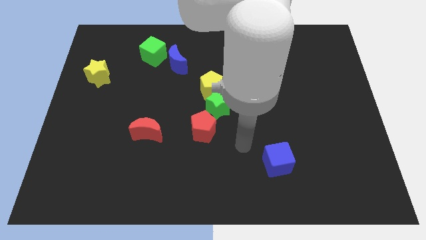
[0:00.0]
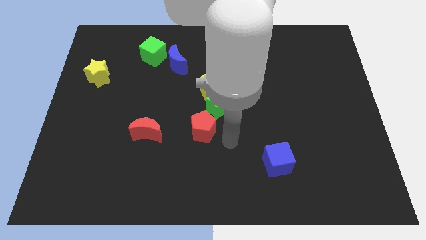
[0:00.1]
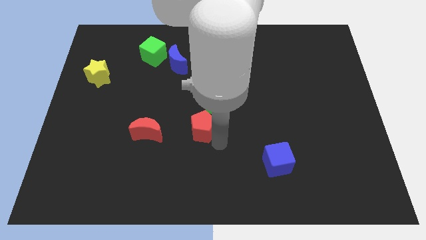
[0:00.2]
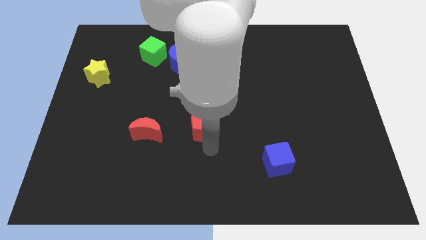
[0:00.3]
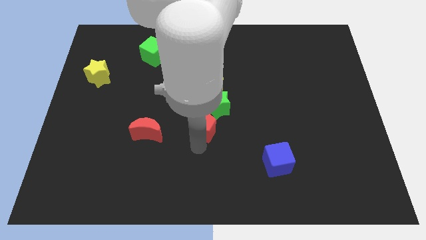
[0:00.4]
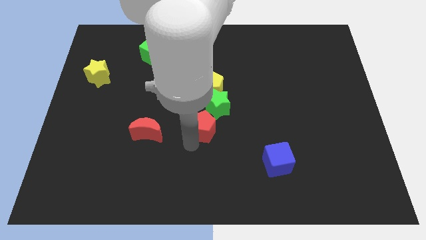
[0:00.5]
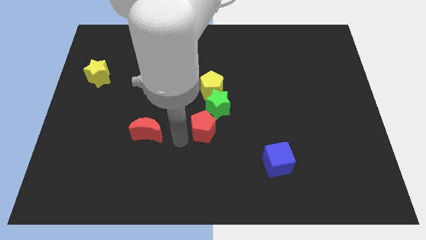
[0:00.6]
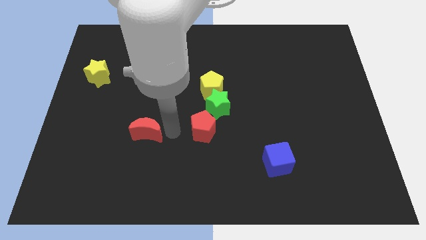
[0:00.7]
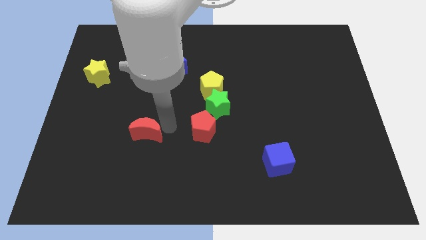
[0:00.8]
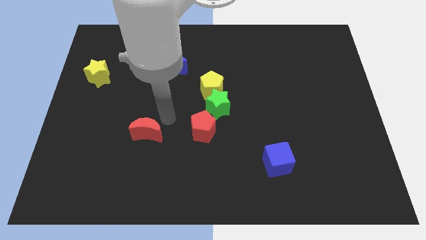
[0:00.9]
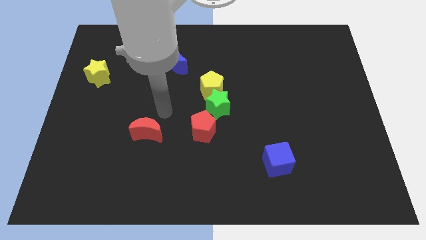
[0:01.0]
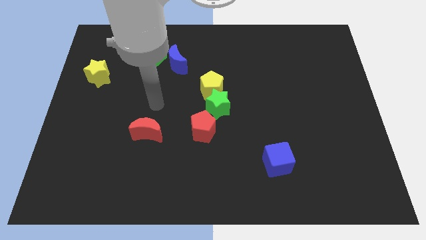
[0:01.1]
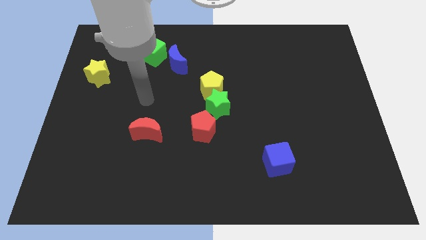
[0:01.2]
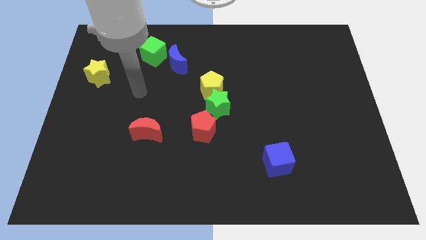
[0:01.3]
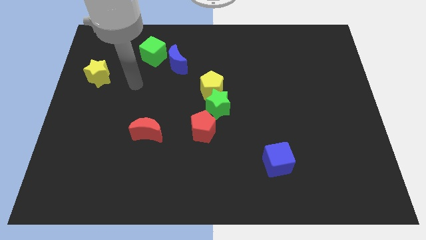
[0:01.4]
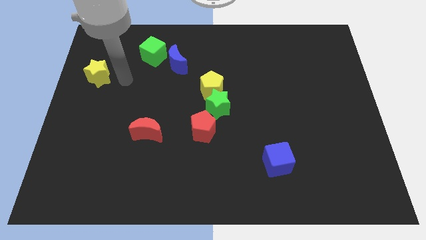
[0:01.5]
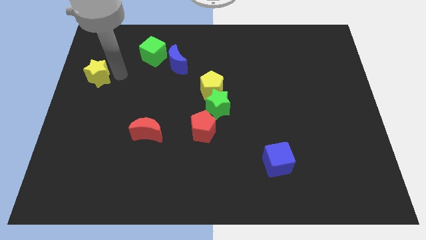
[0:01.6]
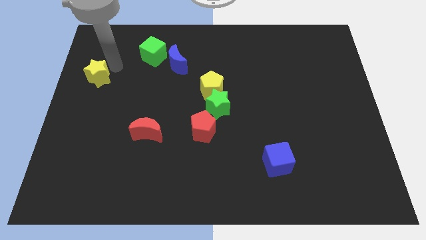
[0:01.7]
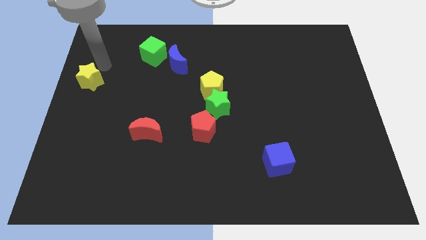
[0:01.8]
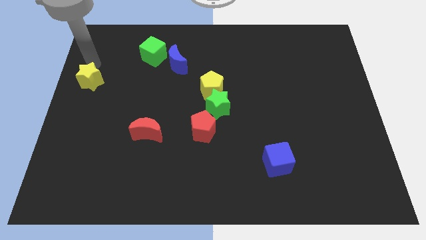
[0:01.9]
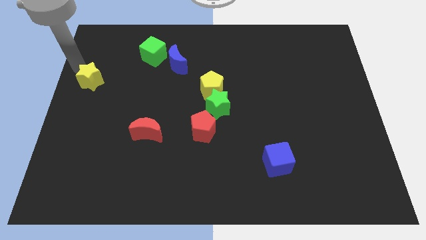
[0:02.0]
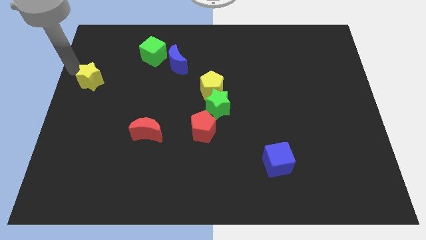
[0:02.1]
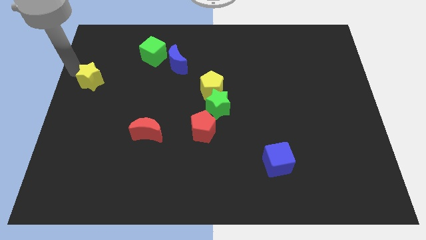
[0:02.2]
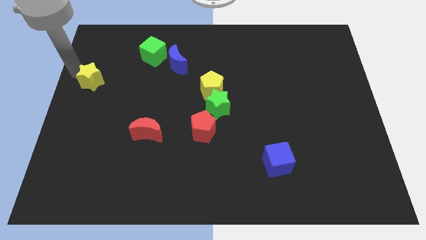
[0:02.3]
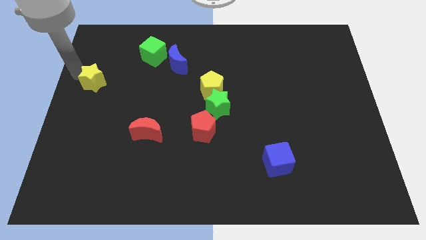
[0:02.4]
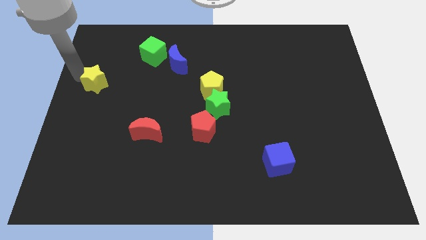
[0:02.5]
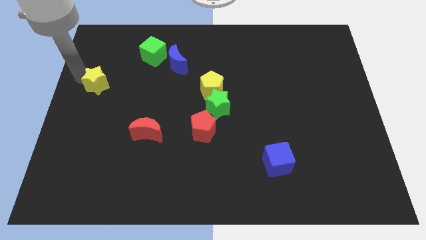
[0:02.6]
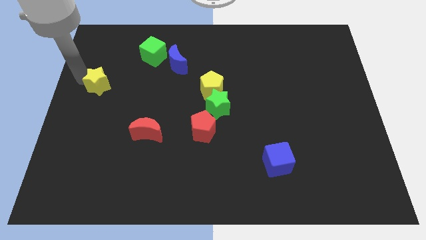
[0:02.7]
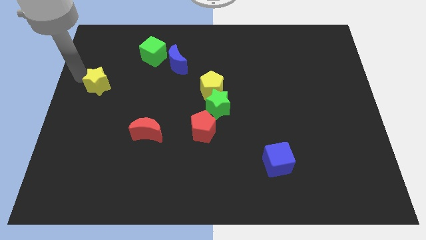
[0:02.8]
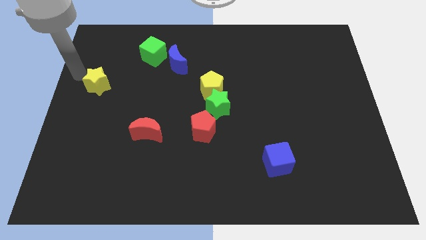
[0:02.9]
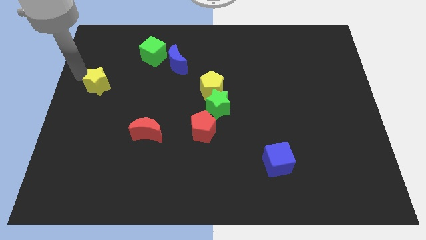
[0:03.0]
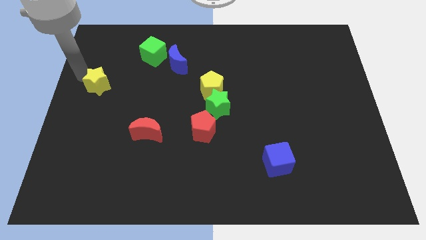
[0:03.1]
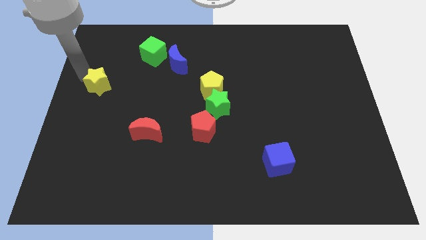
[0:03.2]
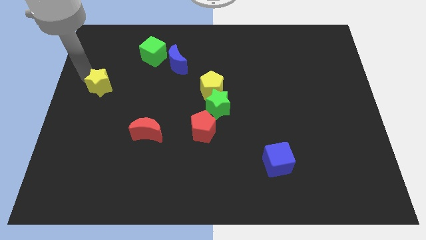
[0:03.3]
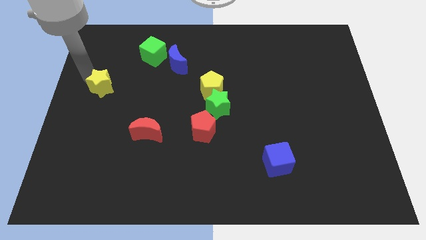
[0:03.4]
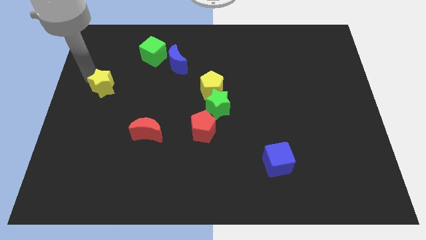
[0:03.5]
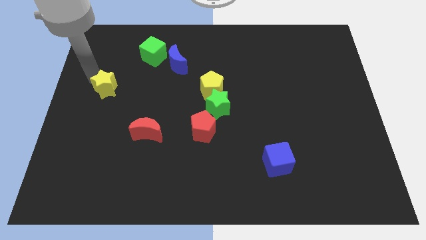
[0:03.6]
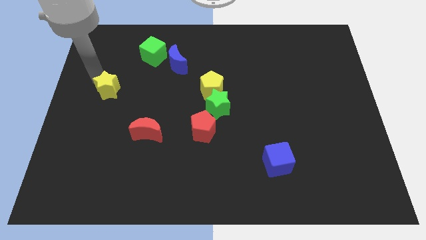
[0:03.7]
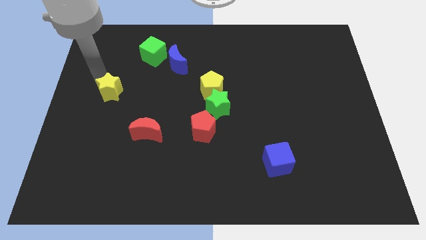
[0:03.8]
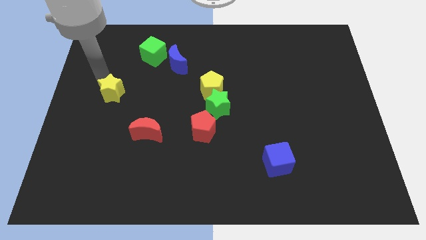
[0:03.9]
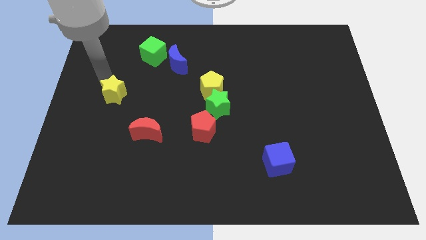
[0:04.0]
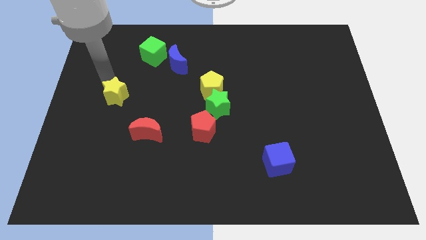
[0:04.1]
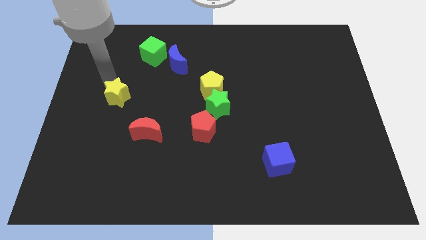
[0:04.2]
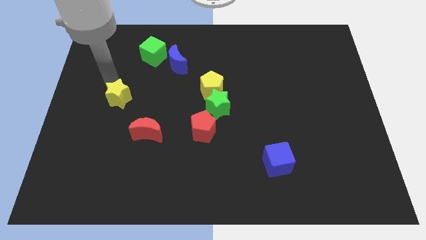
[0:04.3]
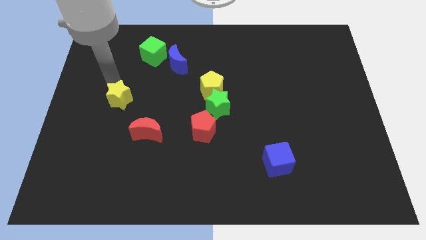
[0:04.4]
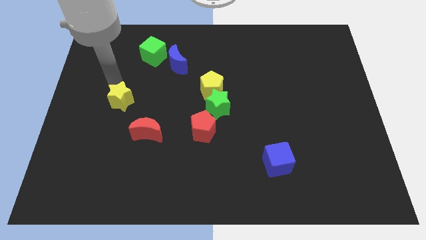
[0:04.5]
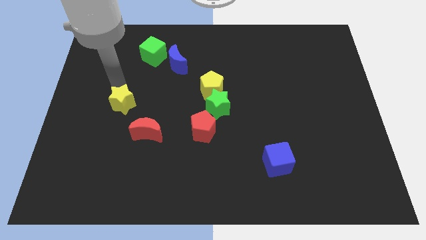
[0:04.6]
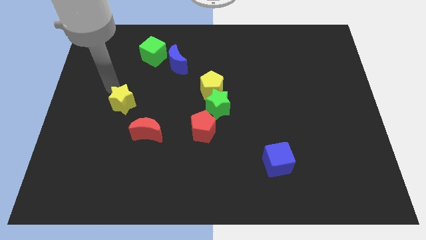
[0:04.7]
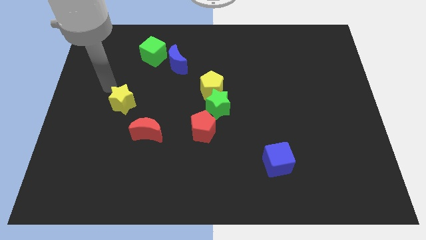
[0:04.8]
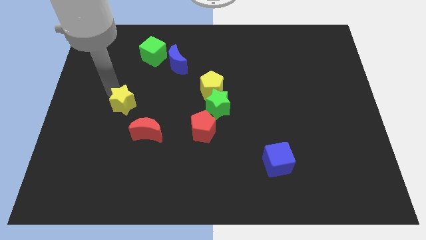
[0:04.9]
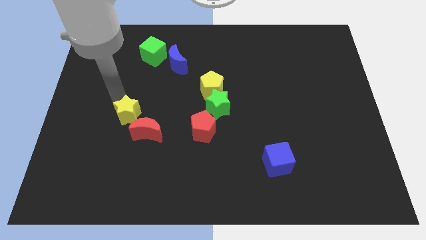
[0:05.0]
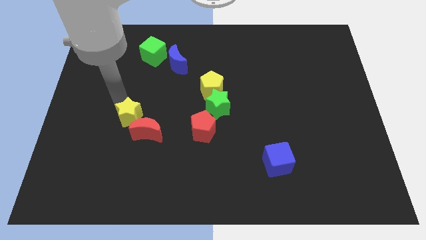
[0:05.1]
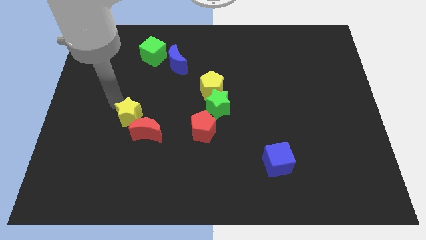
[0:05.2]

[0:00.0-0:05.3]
slide the yellow star next to the red moon

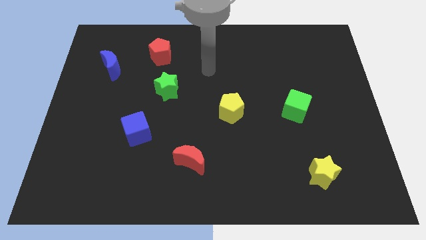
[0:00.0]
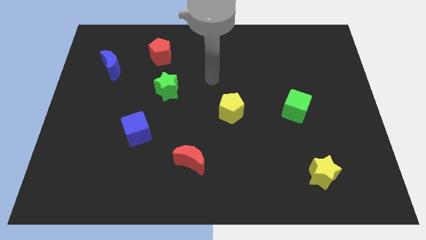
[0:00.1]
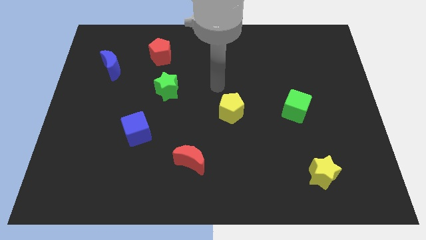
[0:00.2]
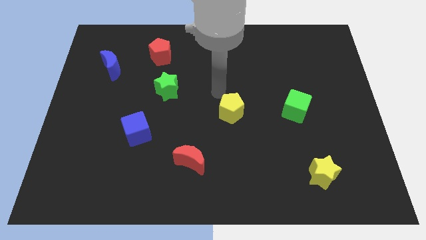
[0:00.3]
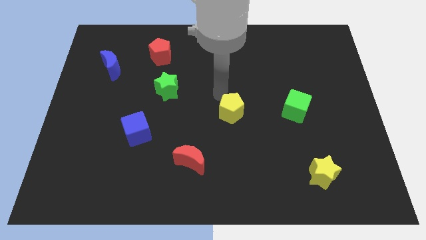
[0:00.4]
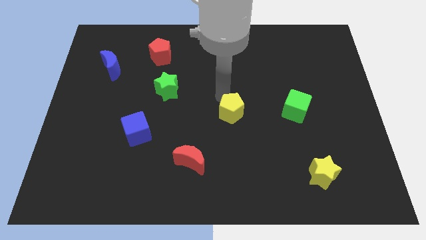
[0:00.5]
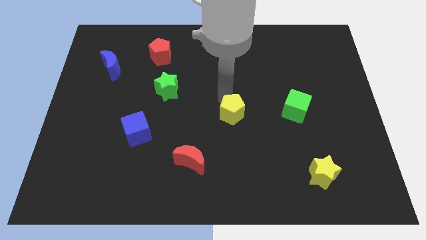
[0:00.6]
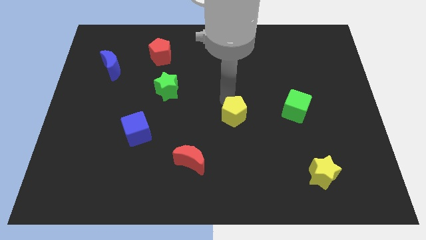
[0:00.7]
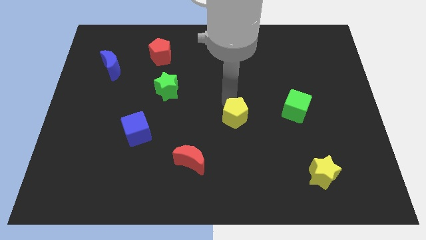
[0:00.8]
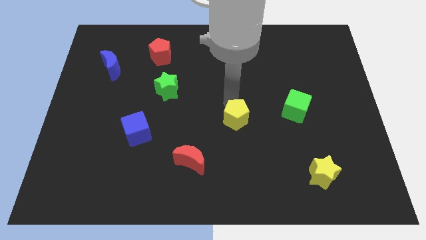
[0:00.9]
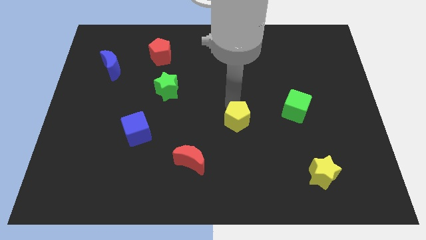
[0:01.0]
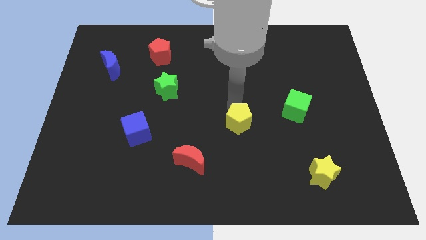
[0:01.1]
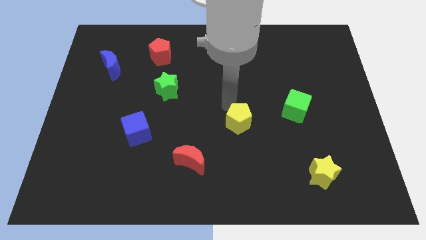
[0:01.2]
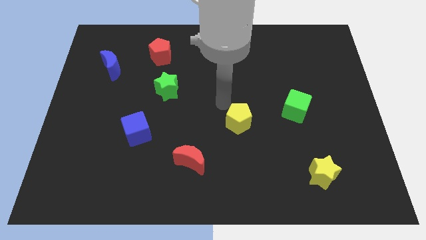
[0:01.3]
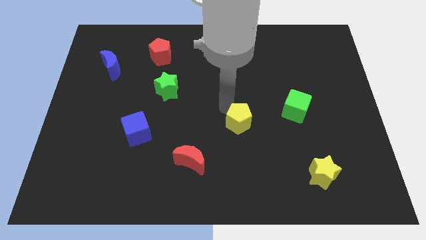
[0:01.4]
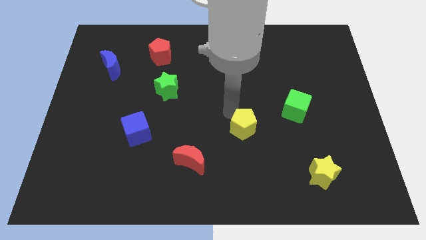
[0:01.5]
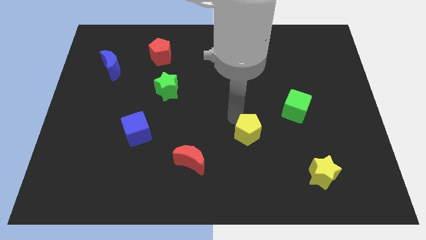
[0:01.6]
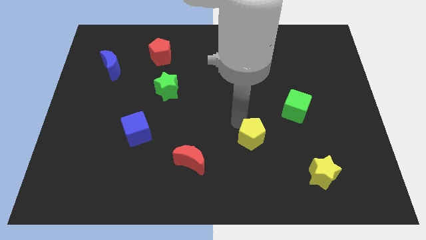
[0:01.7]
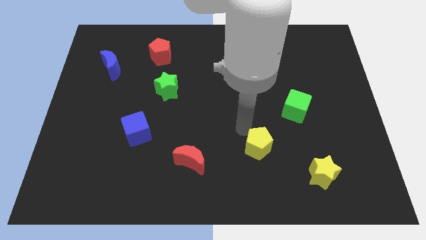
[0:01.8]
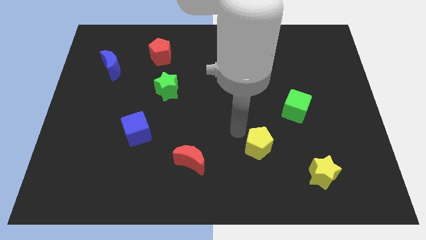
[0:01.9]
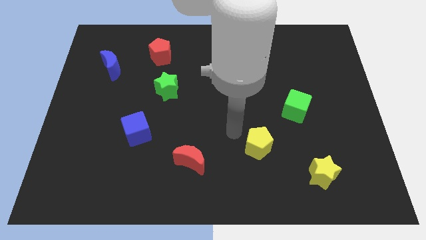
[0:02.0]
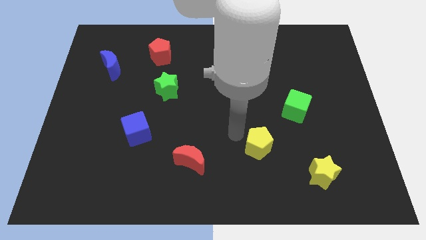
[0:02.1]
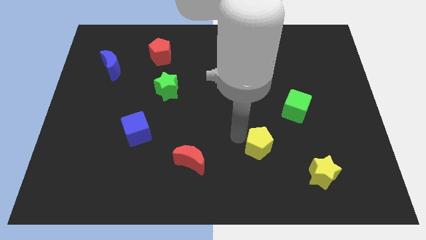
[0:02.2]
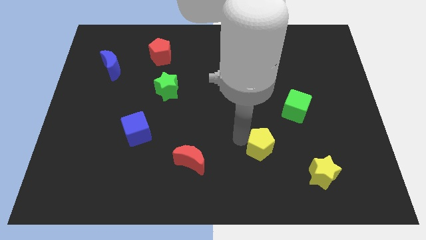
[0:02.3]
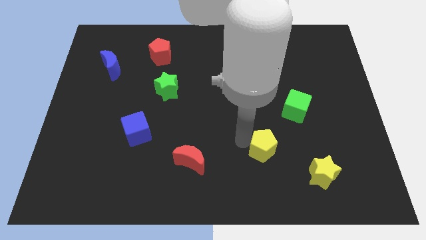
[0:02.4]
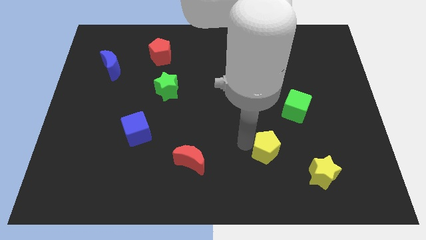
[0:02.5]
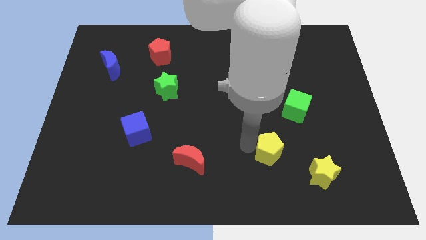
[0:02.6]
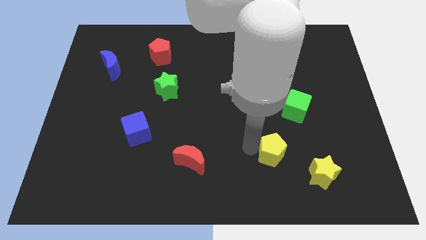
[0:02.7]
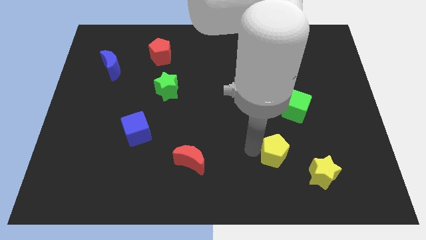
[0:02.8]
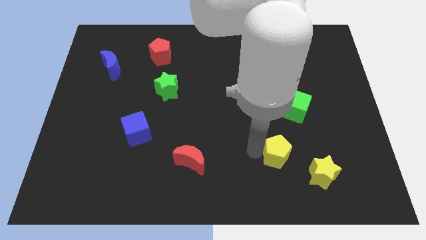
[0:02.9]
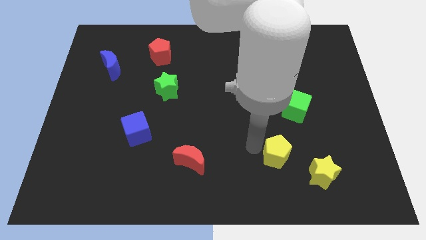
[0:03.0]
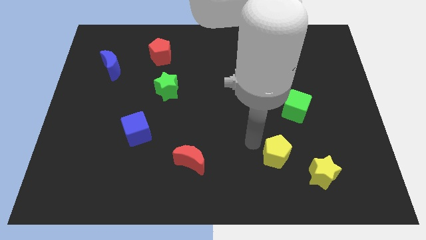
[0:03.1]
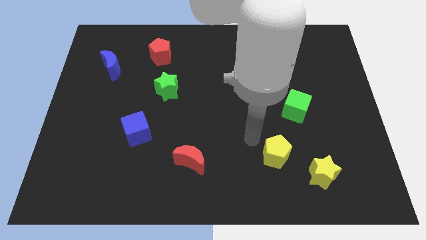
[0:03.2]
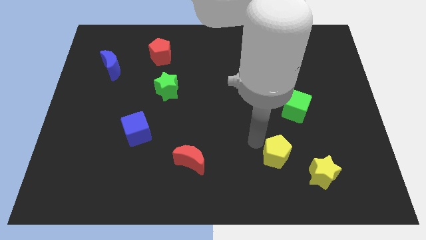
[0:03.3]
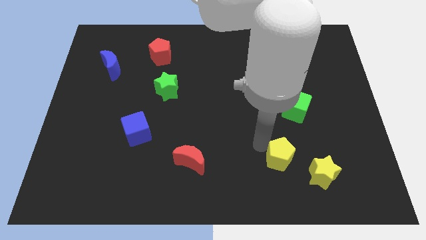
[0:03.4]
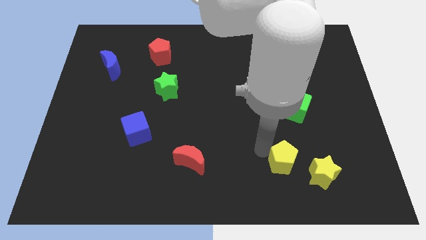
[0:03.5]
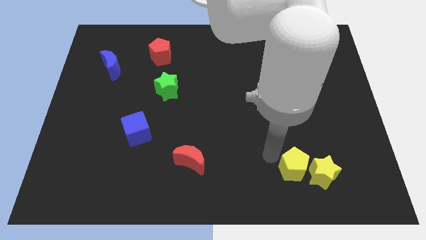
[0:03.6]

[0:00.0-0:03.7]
move the yellow pentagon close to the yellow star
